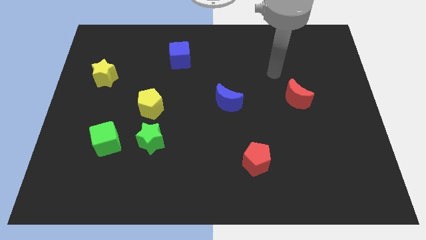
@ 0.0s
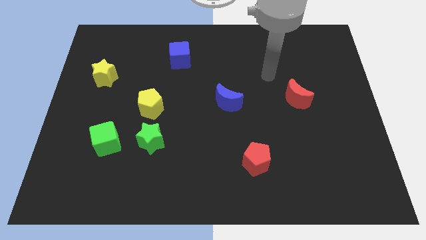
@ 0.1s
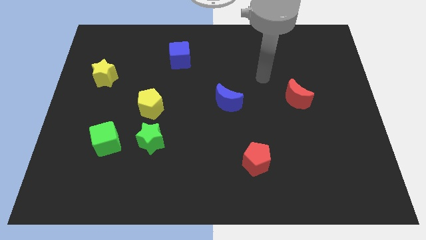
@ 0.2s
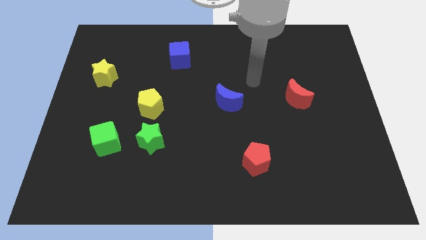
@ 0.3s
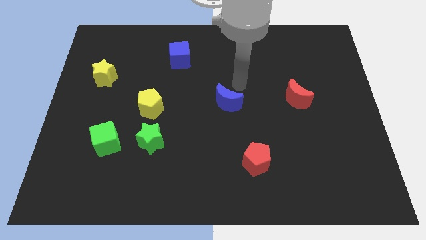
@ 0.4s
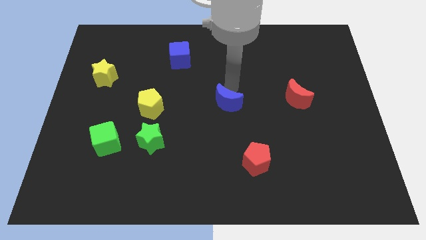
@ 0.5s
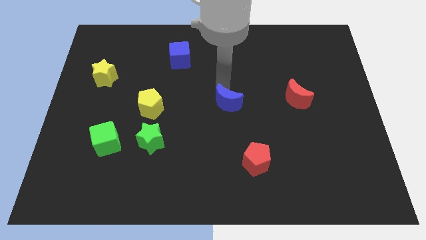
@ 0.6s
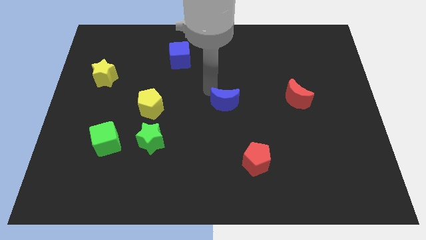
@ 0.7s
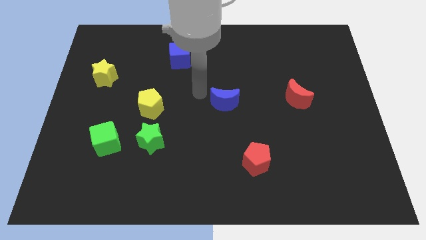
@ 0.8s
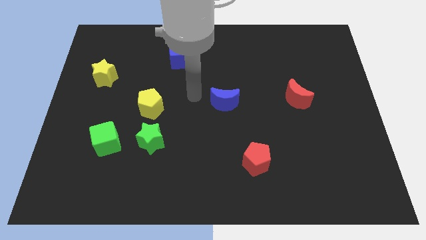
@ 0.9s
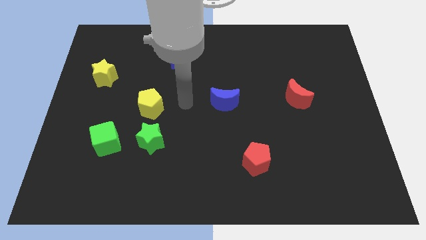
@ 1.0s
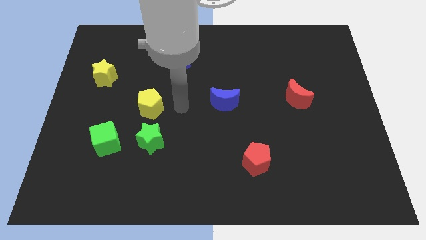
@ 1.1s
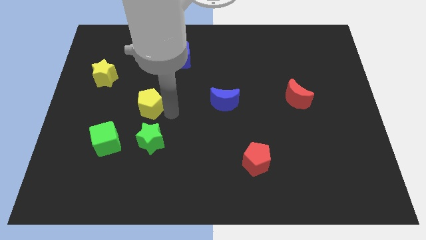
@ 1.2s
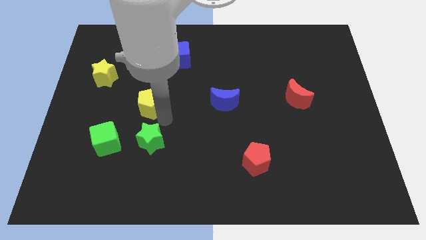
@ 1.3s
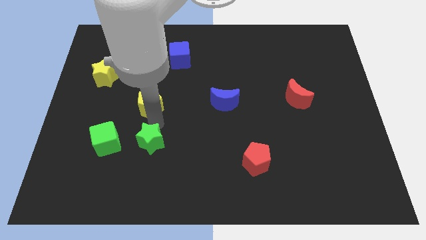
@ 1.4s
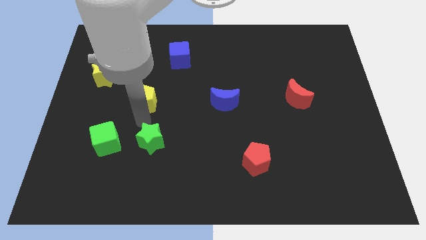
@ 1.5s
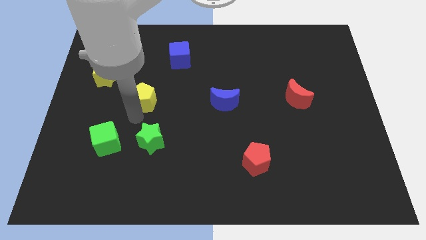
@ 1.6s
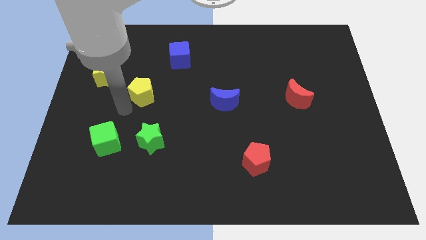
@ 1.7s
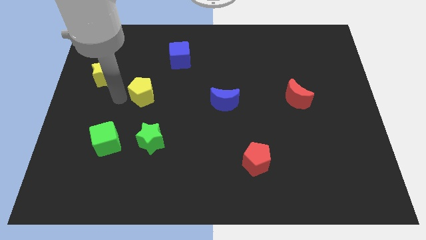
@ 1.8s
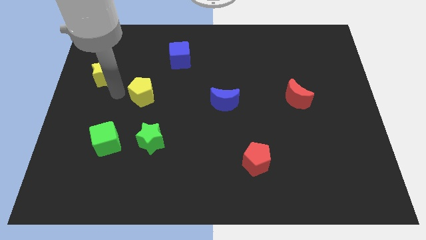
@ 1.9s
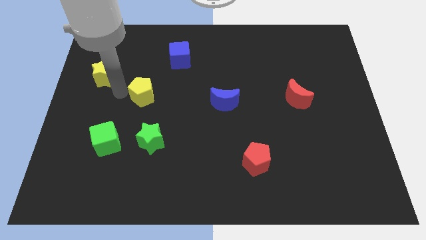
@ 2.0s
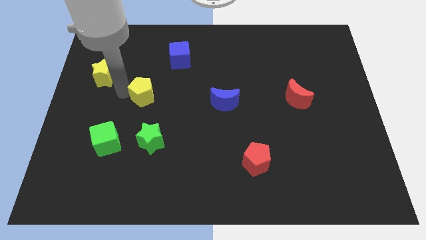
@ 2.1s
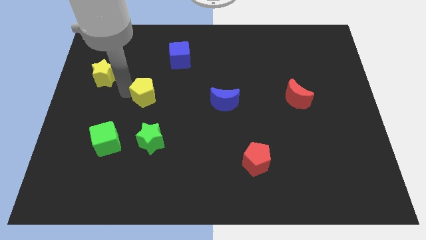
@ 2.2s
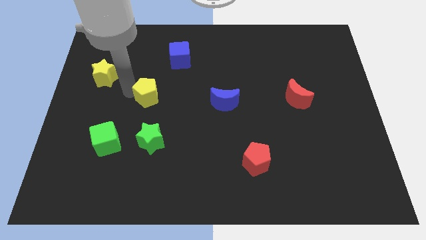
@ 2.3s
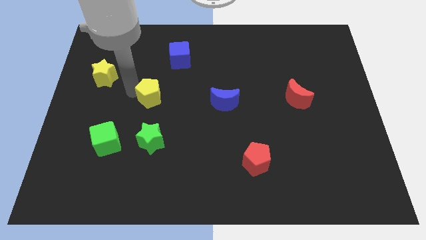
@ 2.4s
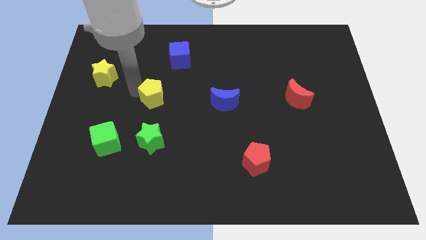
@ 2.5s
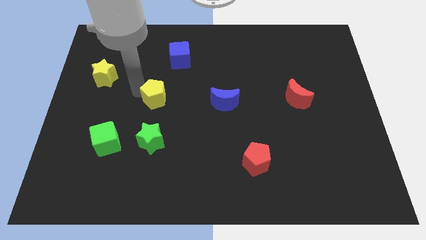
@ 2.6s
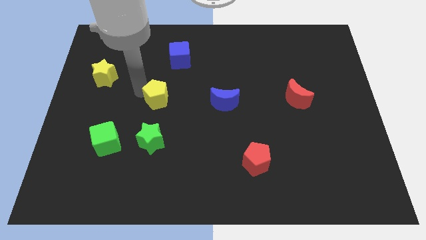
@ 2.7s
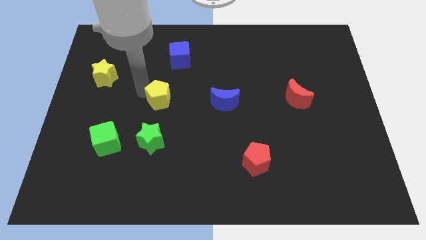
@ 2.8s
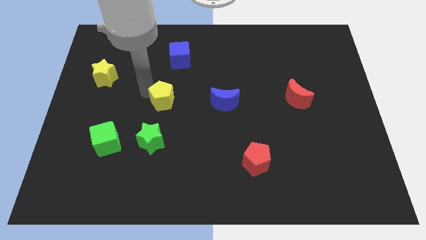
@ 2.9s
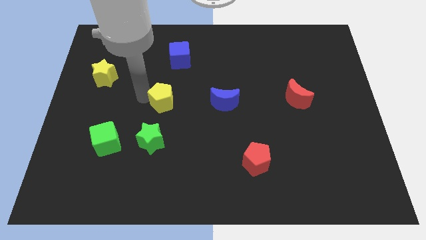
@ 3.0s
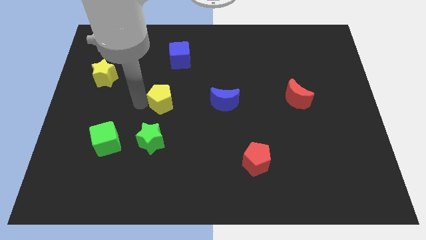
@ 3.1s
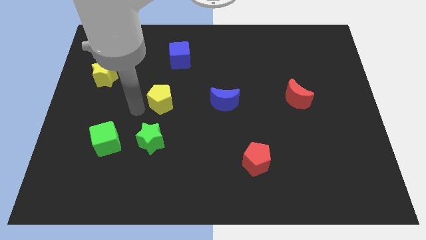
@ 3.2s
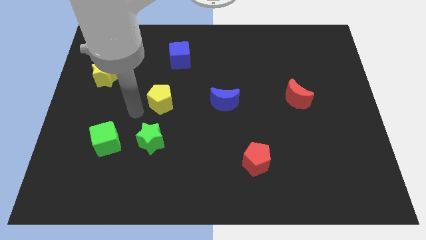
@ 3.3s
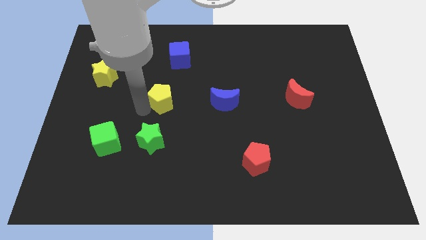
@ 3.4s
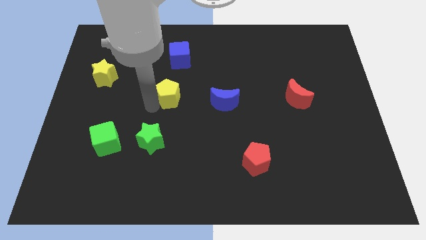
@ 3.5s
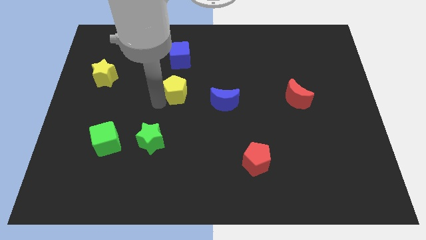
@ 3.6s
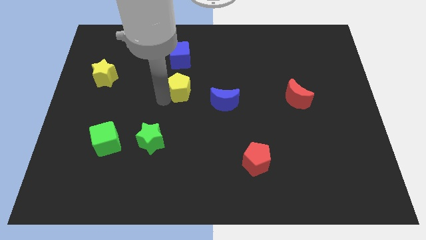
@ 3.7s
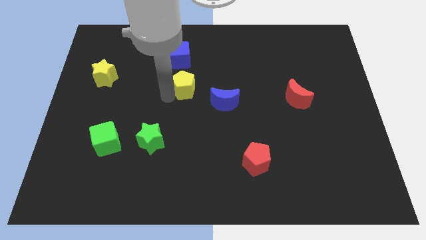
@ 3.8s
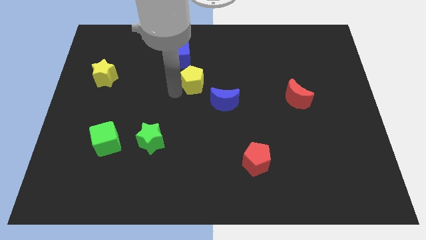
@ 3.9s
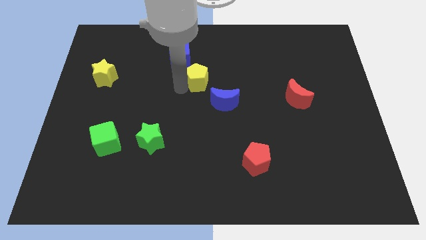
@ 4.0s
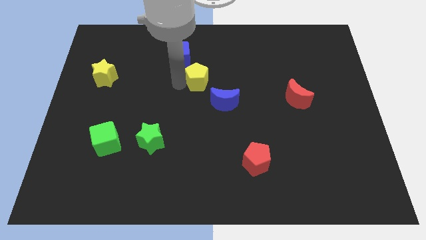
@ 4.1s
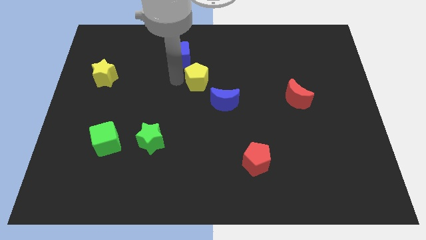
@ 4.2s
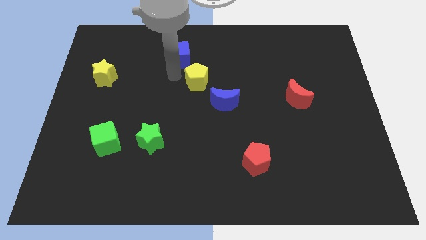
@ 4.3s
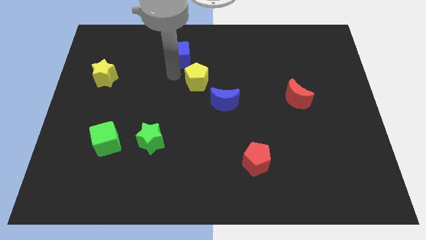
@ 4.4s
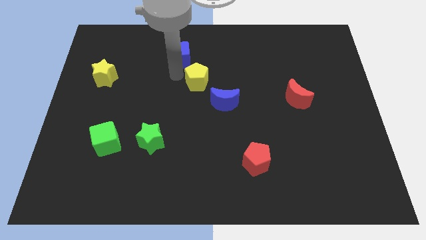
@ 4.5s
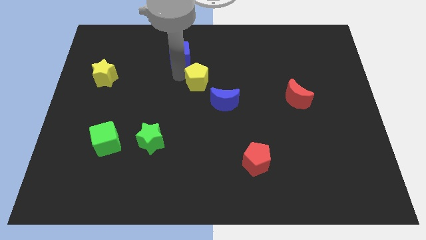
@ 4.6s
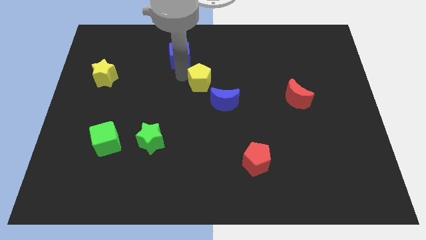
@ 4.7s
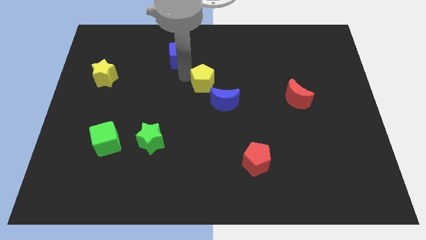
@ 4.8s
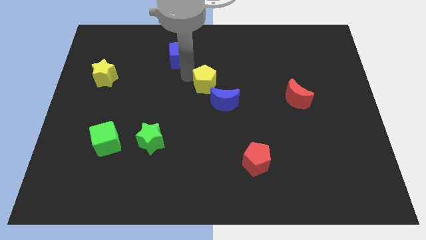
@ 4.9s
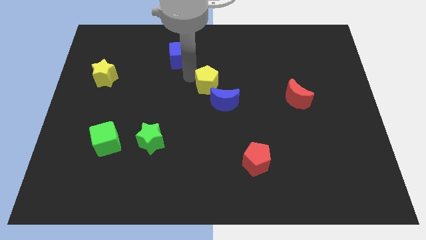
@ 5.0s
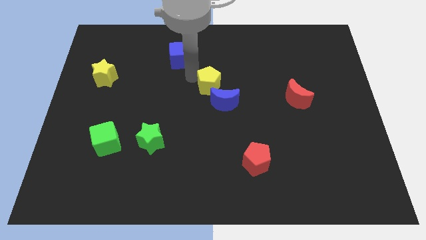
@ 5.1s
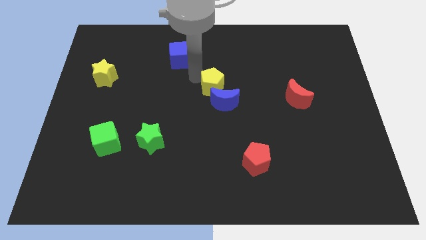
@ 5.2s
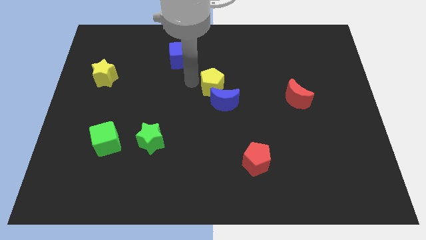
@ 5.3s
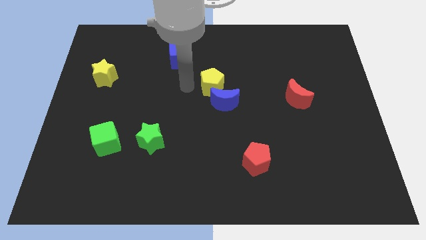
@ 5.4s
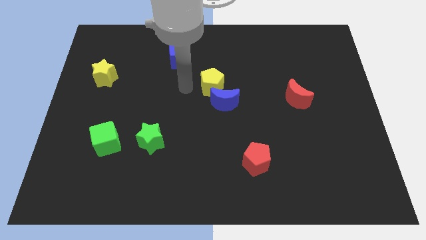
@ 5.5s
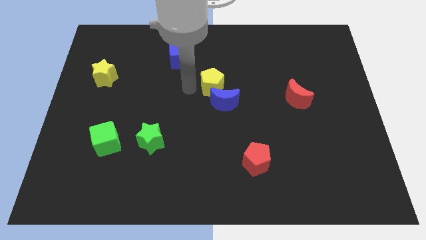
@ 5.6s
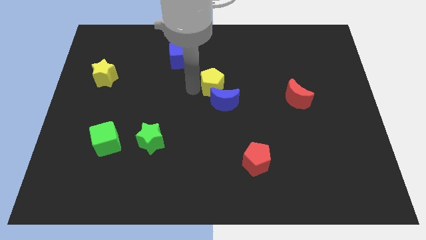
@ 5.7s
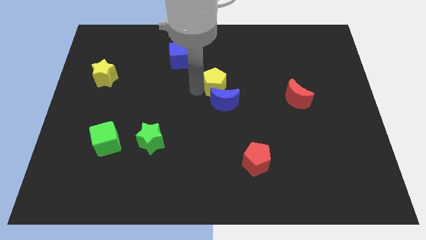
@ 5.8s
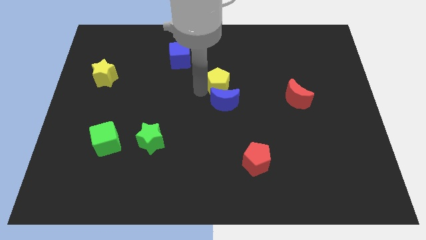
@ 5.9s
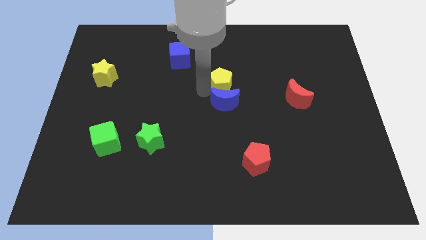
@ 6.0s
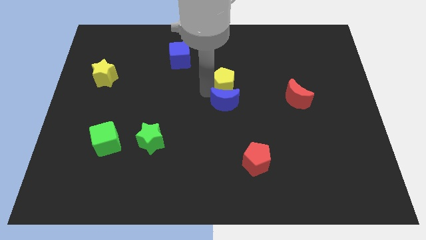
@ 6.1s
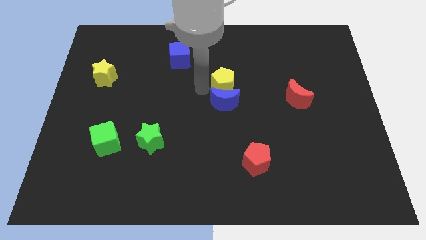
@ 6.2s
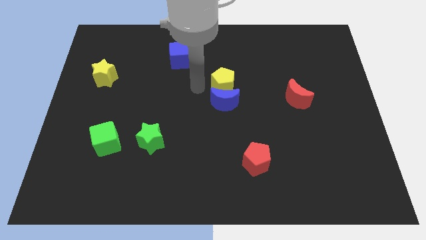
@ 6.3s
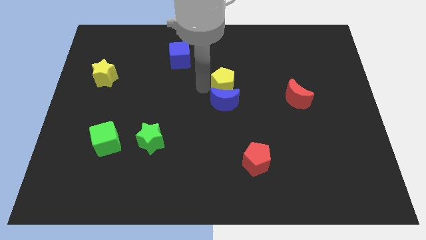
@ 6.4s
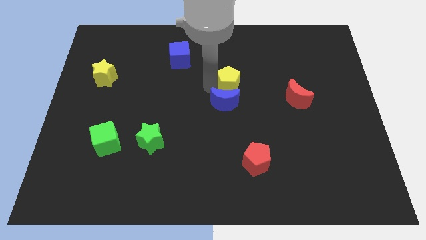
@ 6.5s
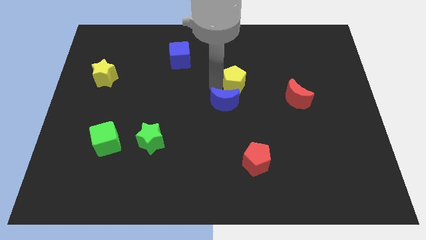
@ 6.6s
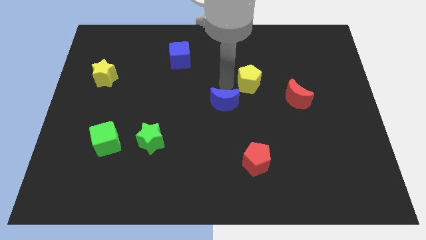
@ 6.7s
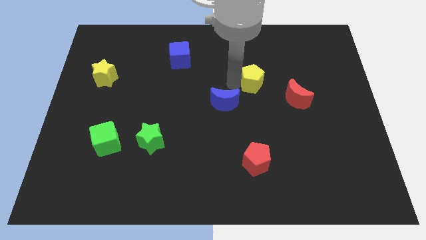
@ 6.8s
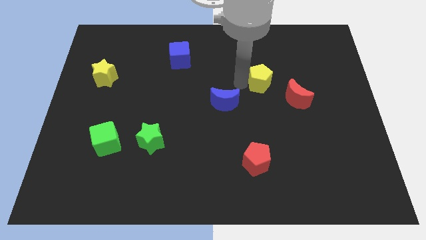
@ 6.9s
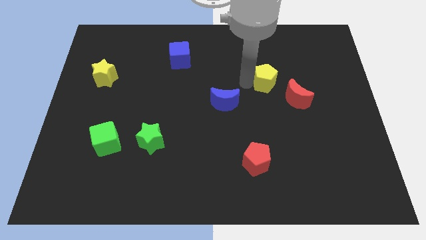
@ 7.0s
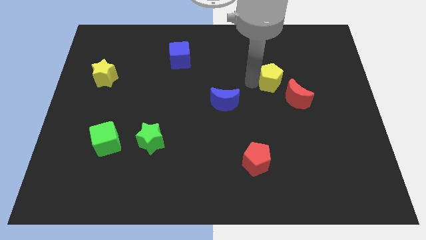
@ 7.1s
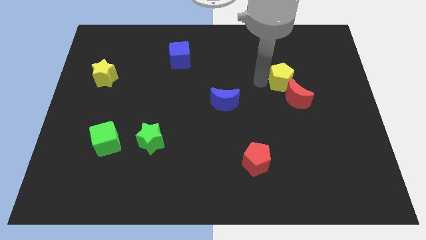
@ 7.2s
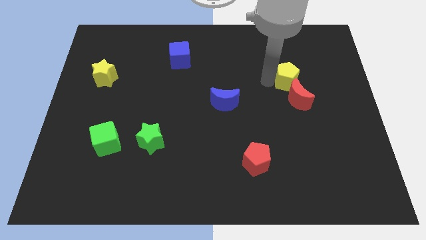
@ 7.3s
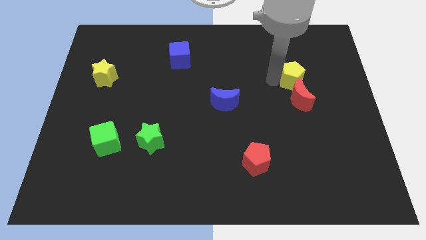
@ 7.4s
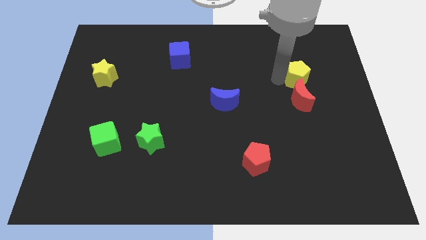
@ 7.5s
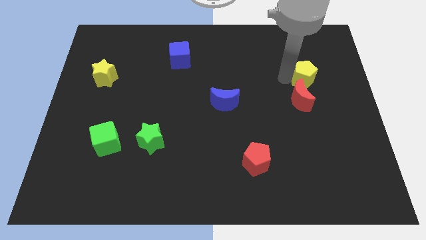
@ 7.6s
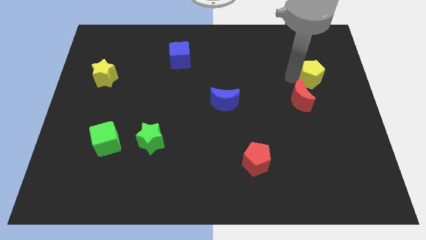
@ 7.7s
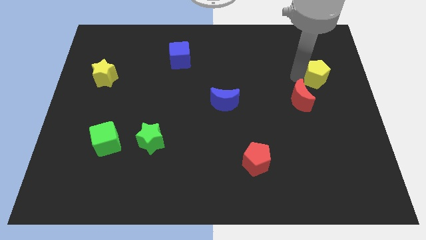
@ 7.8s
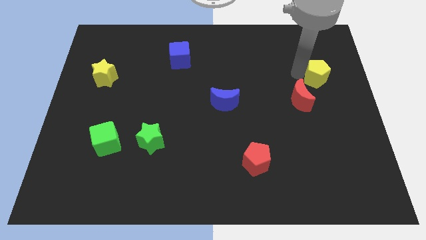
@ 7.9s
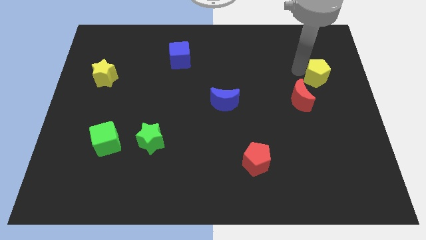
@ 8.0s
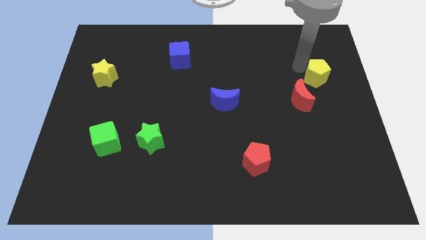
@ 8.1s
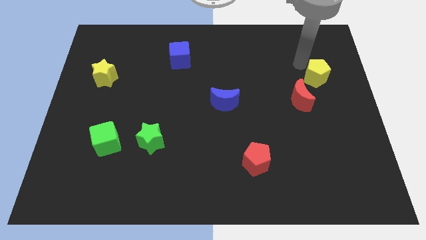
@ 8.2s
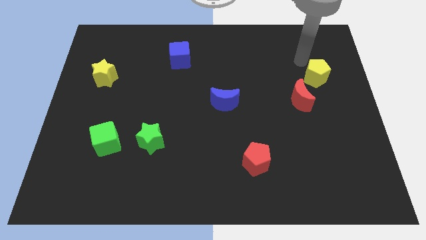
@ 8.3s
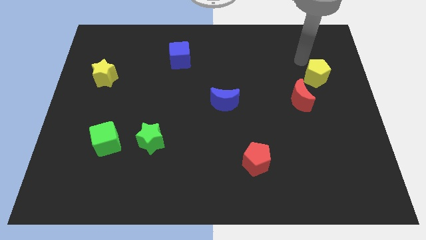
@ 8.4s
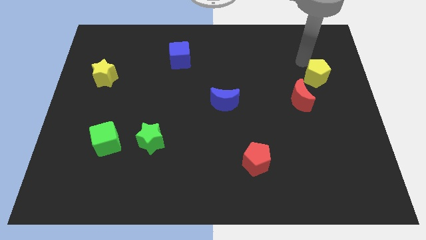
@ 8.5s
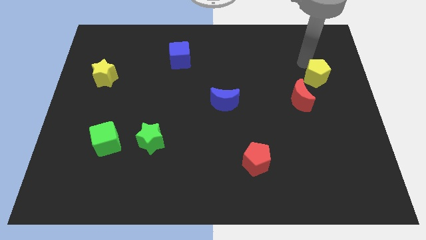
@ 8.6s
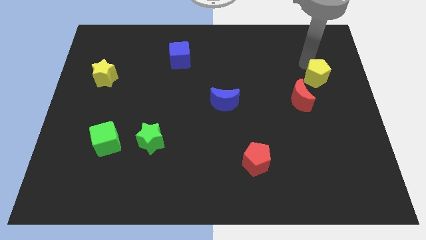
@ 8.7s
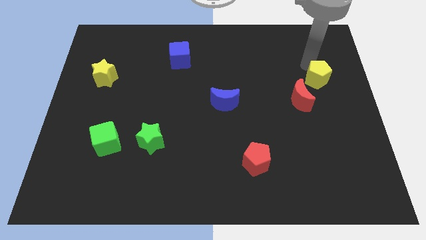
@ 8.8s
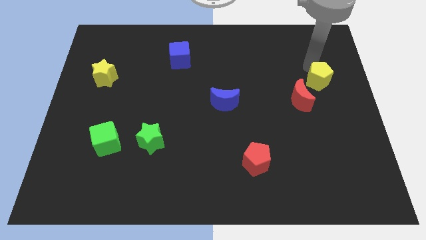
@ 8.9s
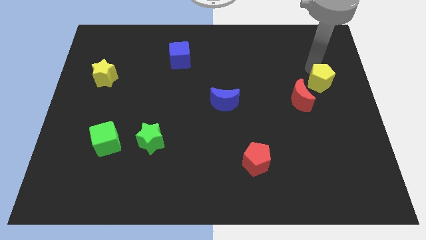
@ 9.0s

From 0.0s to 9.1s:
push the yellow pentagon to the right side of the board
